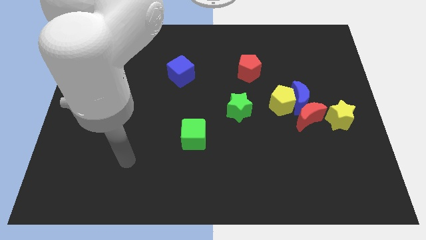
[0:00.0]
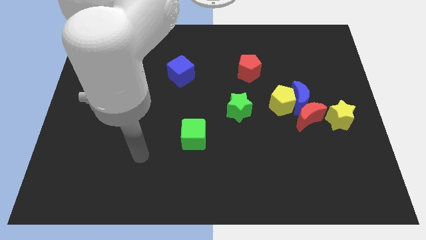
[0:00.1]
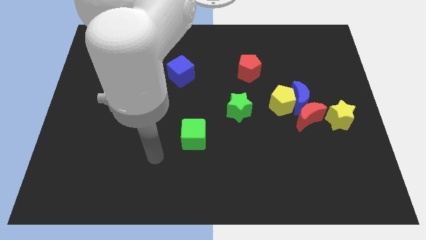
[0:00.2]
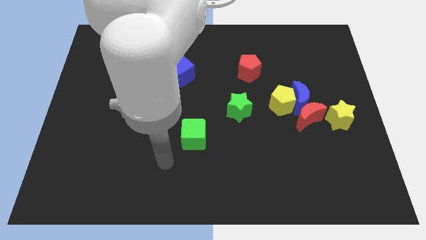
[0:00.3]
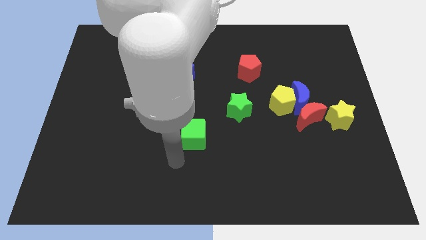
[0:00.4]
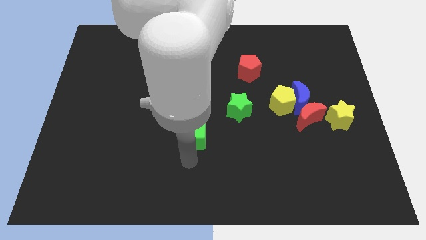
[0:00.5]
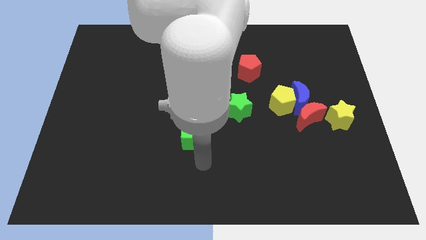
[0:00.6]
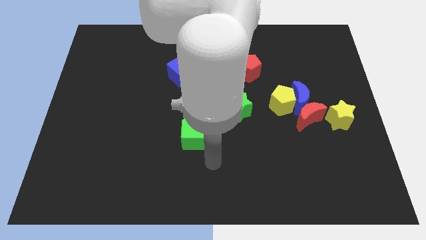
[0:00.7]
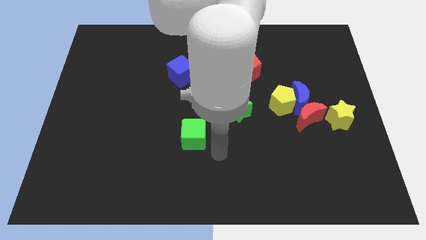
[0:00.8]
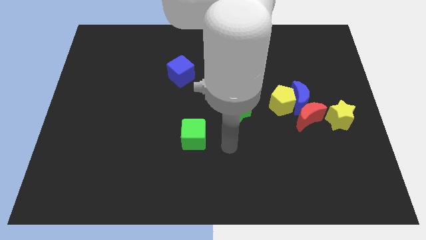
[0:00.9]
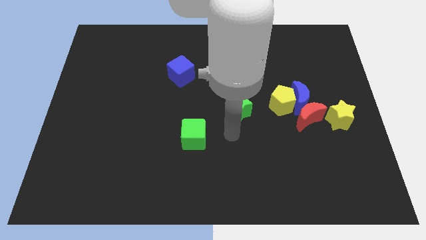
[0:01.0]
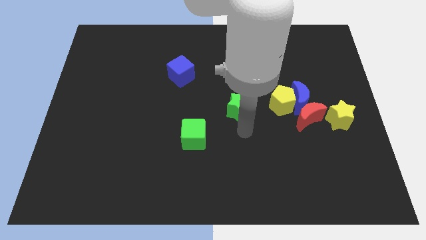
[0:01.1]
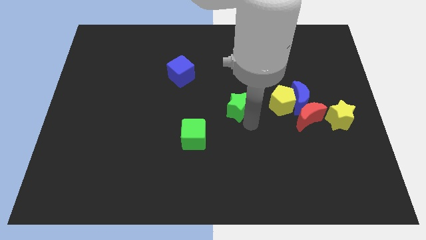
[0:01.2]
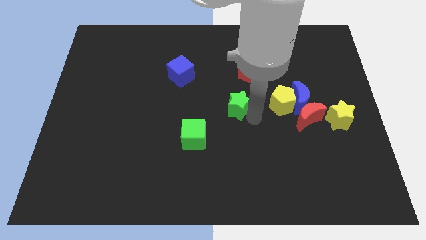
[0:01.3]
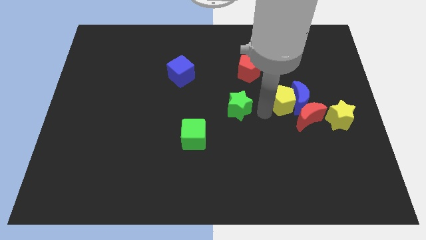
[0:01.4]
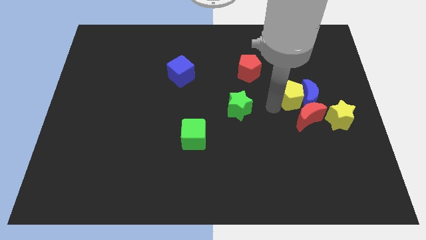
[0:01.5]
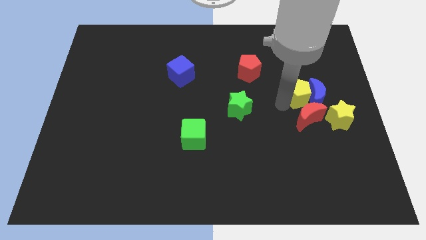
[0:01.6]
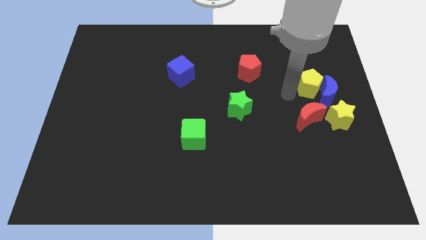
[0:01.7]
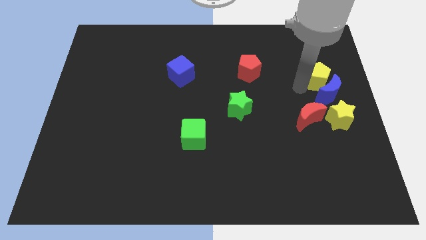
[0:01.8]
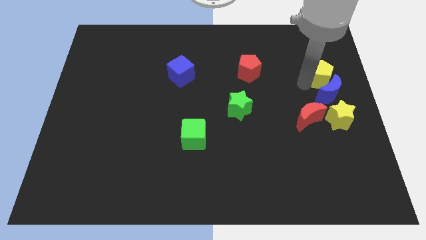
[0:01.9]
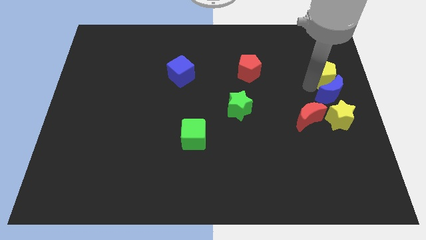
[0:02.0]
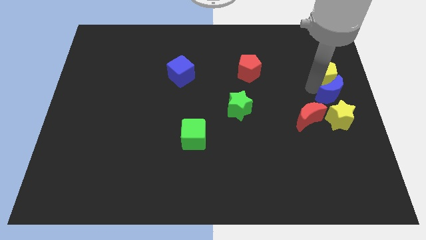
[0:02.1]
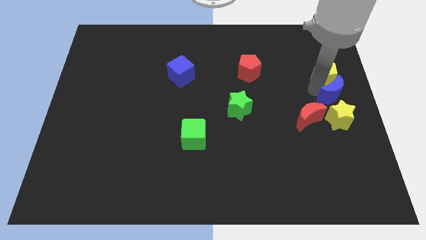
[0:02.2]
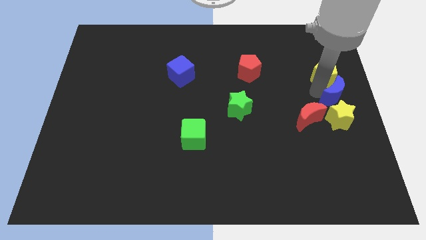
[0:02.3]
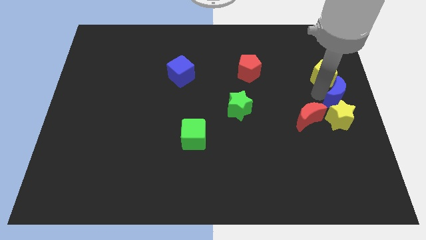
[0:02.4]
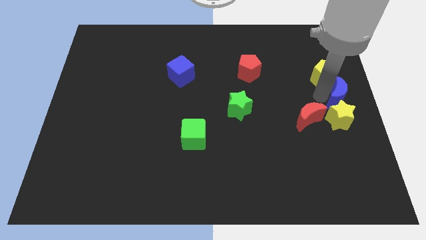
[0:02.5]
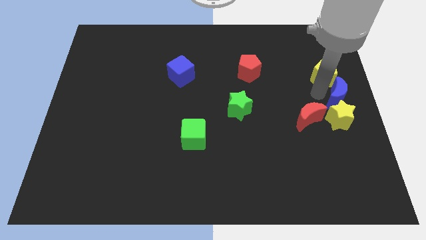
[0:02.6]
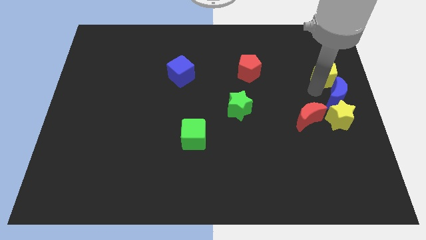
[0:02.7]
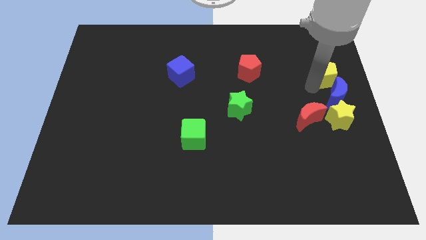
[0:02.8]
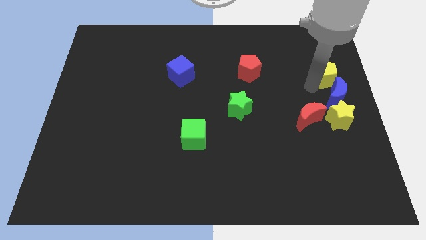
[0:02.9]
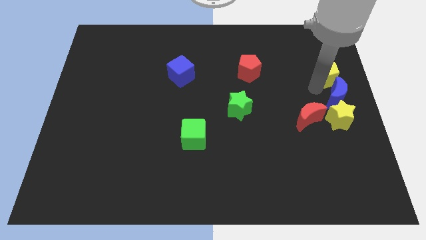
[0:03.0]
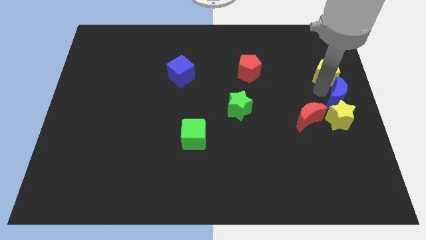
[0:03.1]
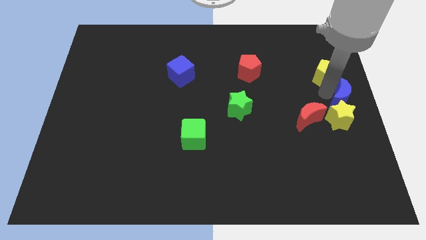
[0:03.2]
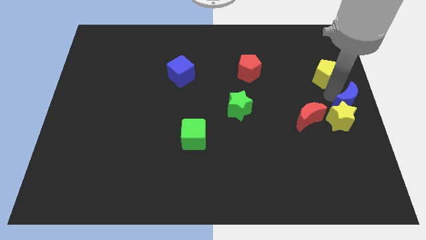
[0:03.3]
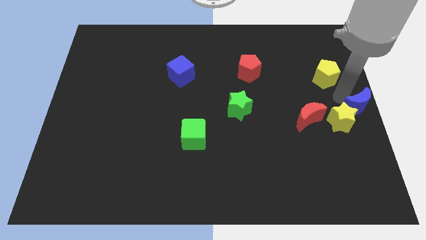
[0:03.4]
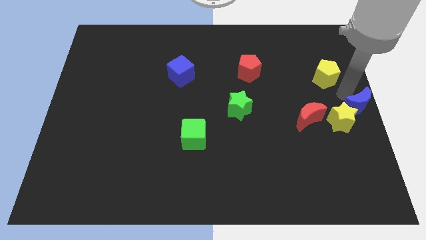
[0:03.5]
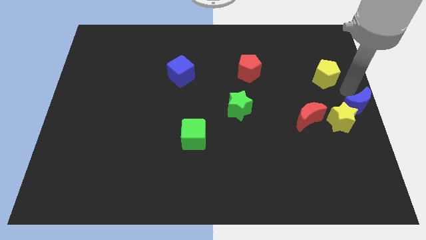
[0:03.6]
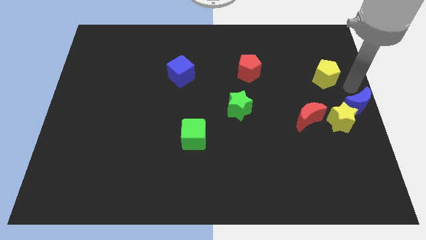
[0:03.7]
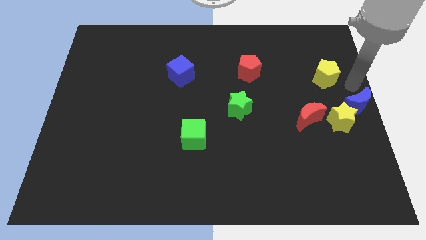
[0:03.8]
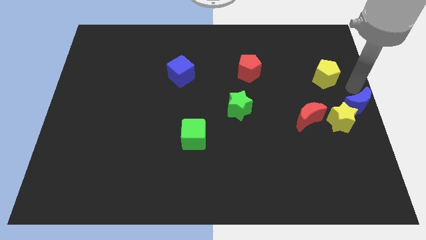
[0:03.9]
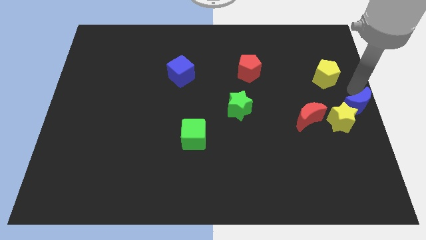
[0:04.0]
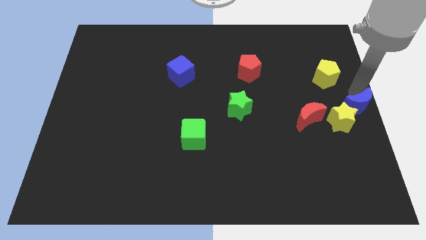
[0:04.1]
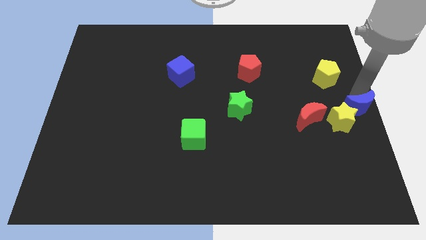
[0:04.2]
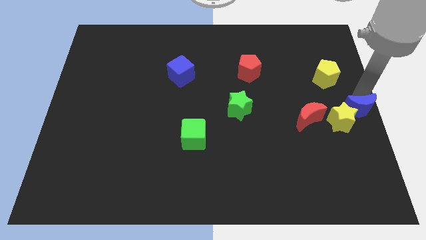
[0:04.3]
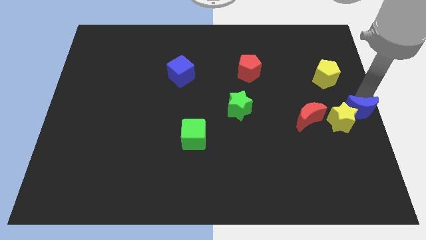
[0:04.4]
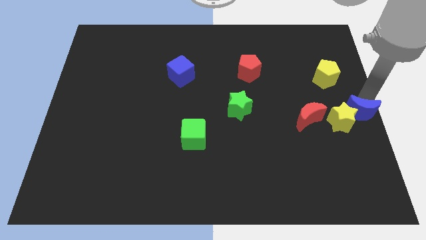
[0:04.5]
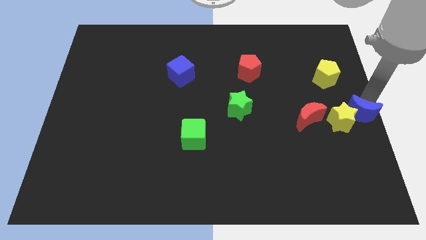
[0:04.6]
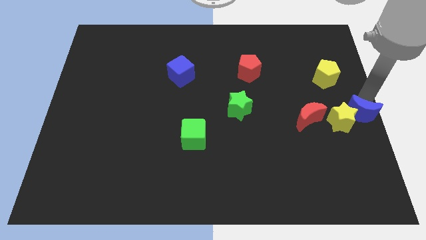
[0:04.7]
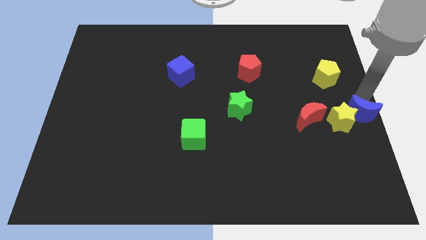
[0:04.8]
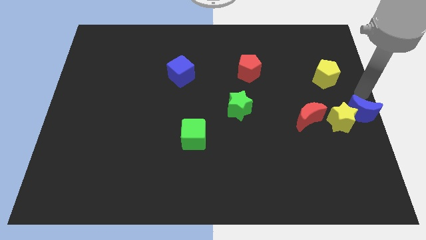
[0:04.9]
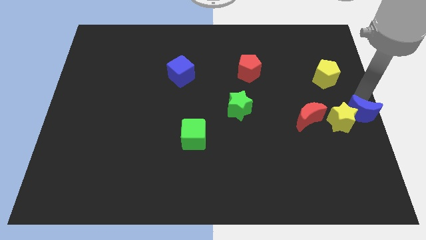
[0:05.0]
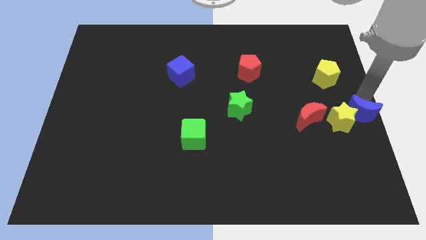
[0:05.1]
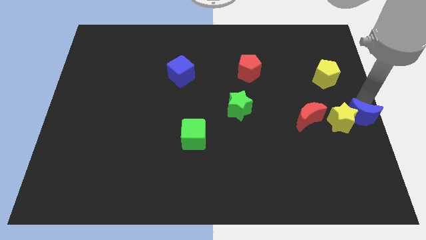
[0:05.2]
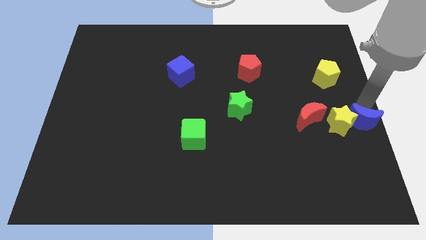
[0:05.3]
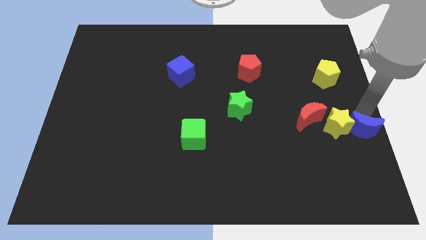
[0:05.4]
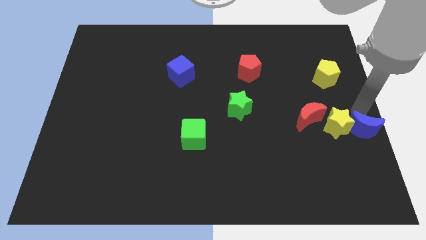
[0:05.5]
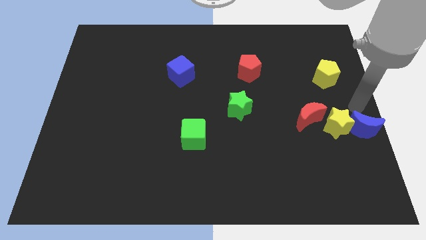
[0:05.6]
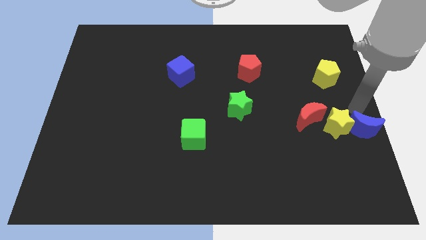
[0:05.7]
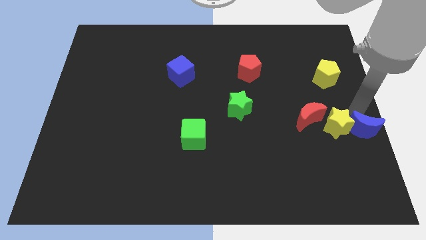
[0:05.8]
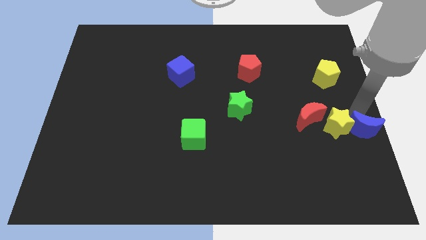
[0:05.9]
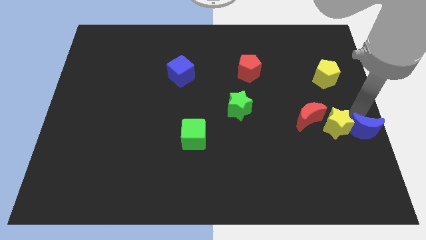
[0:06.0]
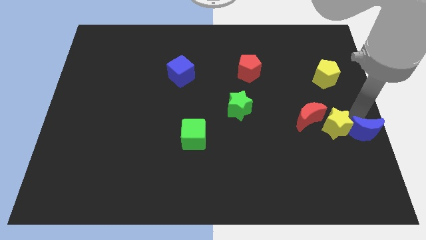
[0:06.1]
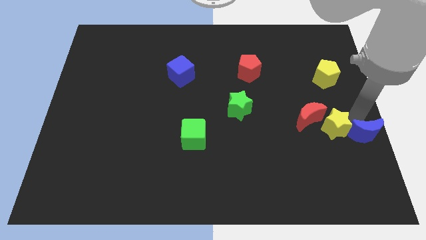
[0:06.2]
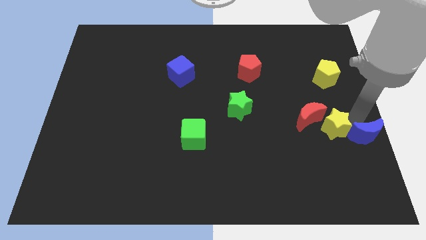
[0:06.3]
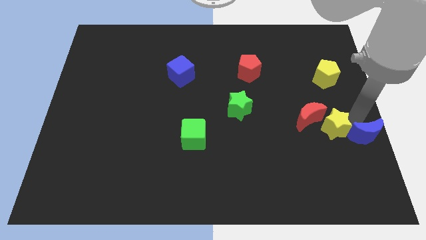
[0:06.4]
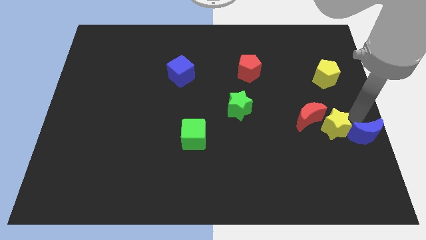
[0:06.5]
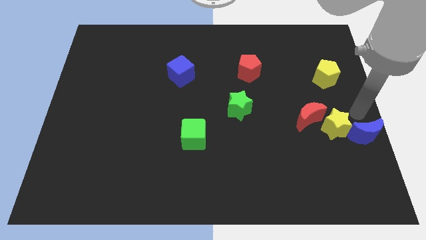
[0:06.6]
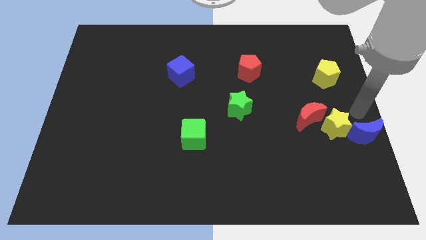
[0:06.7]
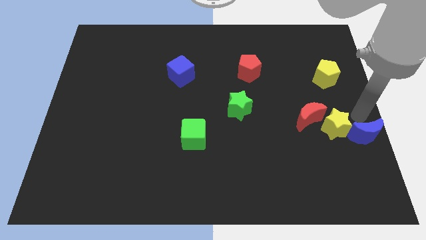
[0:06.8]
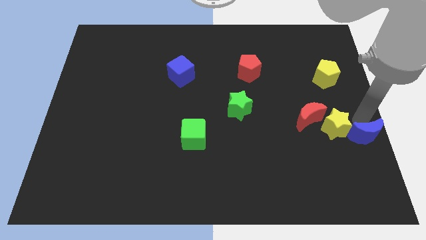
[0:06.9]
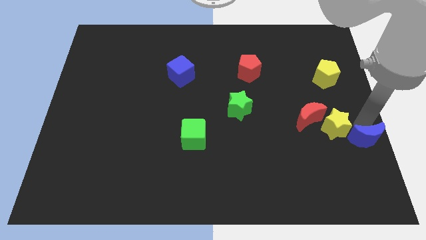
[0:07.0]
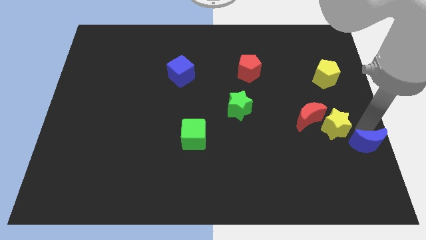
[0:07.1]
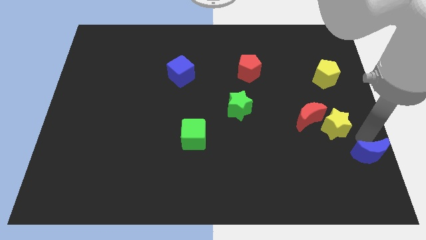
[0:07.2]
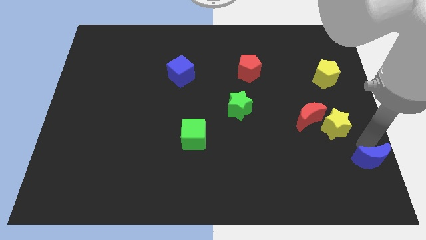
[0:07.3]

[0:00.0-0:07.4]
slide the blue moon to the bottom right of the board
